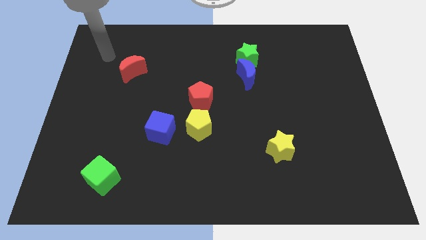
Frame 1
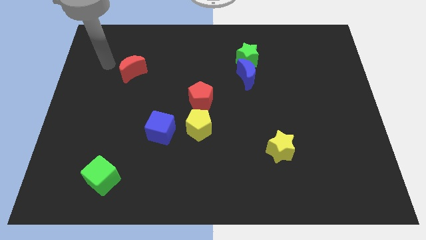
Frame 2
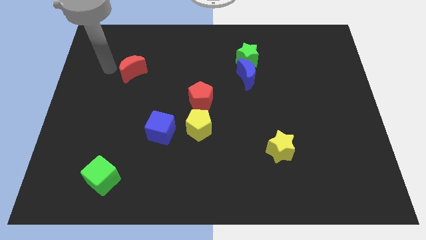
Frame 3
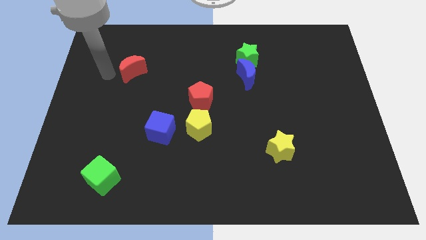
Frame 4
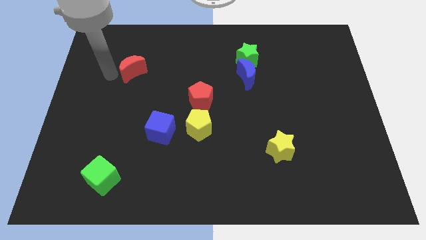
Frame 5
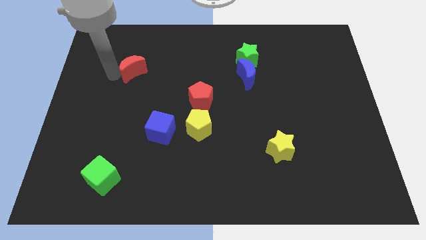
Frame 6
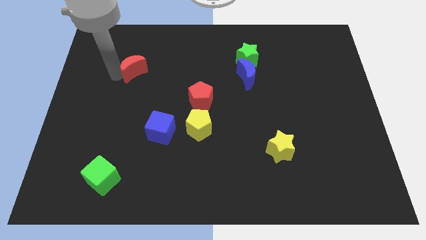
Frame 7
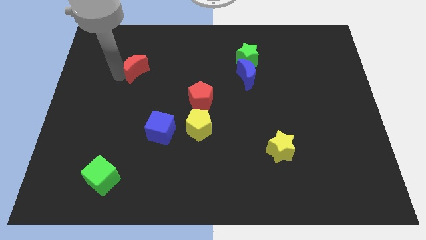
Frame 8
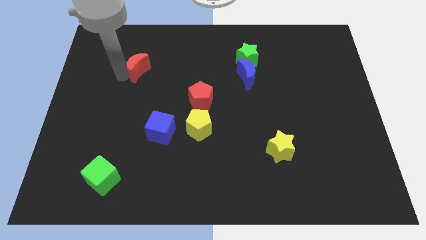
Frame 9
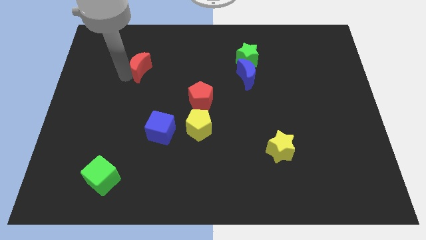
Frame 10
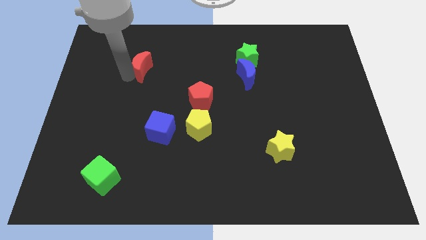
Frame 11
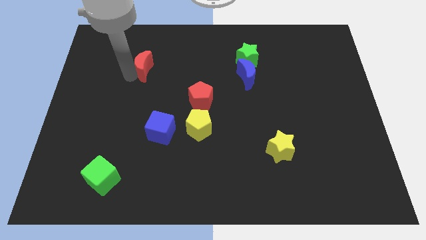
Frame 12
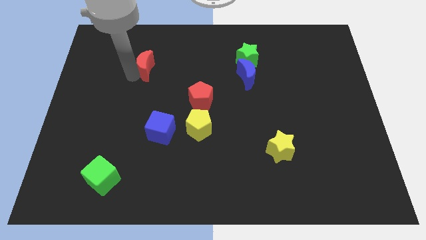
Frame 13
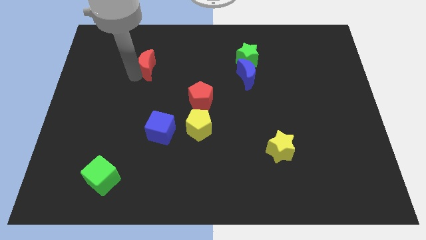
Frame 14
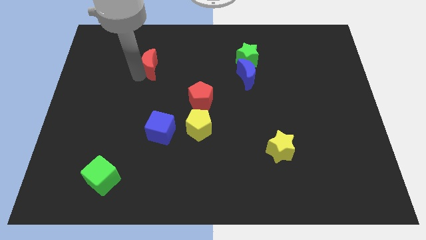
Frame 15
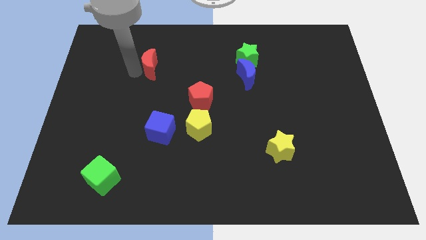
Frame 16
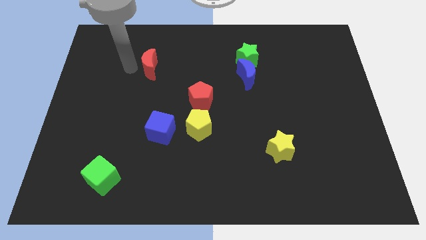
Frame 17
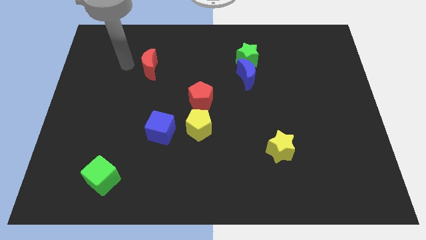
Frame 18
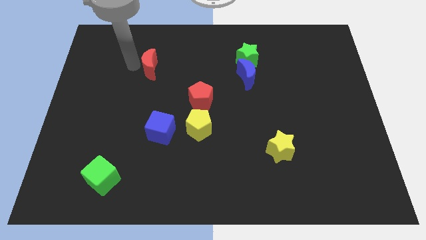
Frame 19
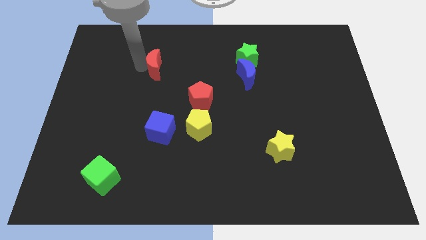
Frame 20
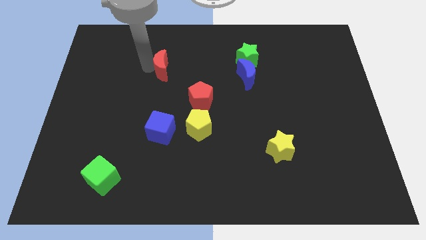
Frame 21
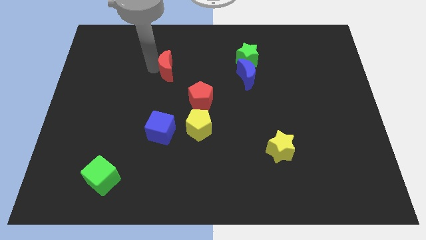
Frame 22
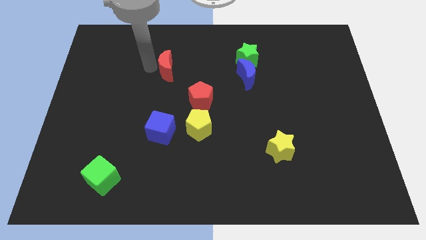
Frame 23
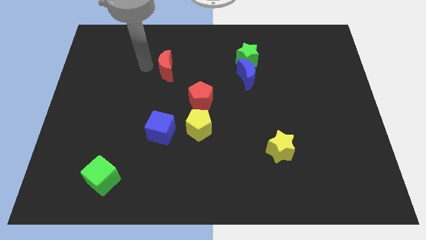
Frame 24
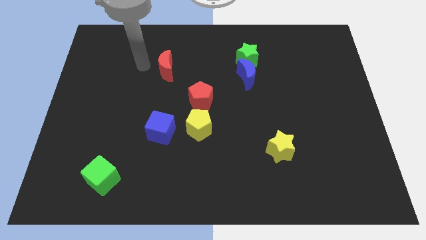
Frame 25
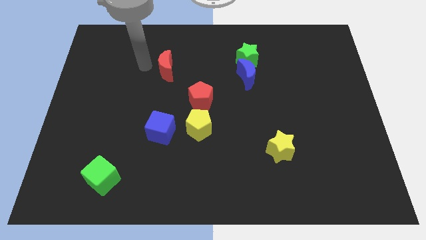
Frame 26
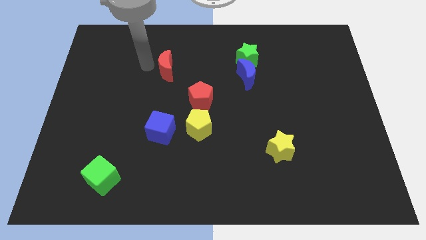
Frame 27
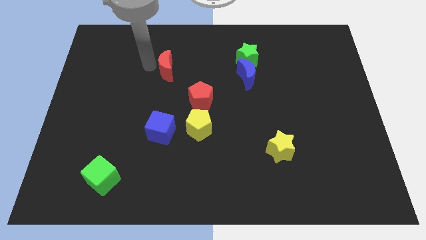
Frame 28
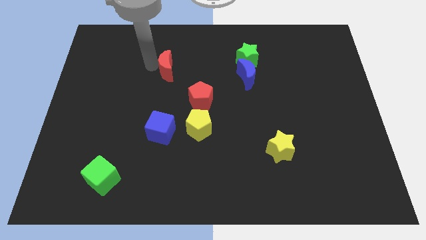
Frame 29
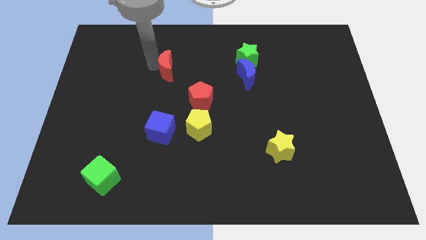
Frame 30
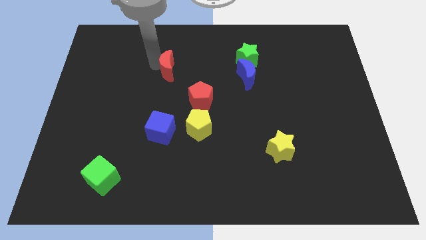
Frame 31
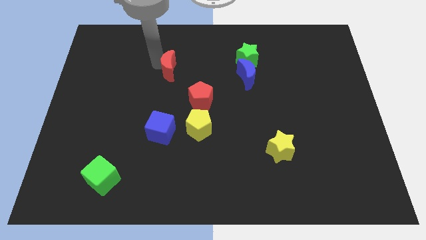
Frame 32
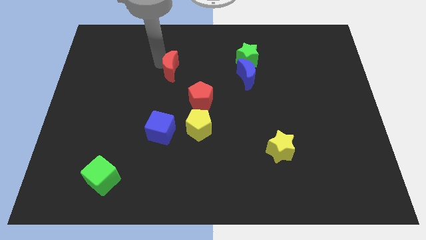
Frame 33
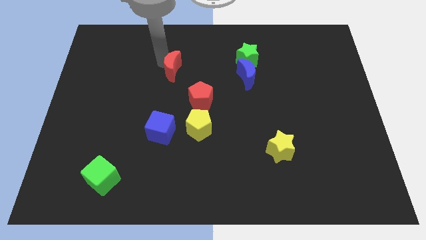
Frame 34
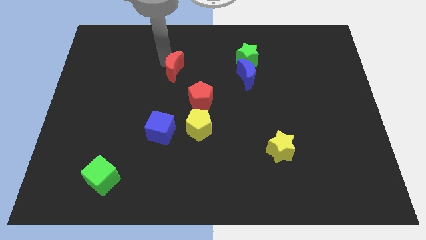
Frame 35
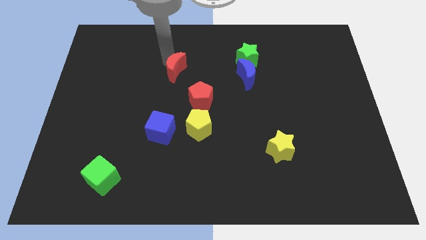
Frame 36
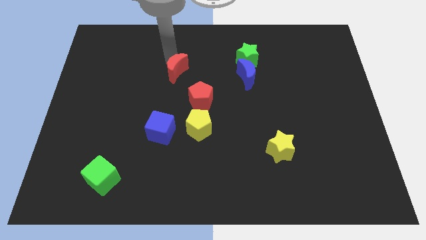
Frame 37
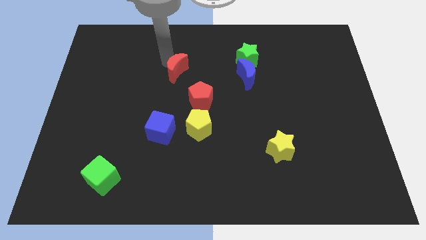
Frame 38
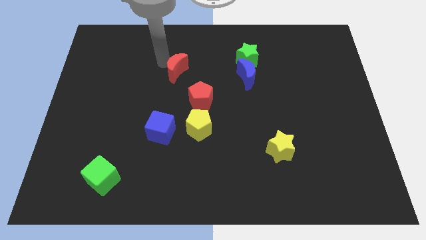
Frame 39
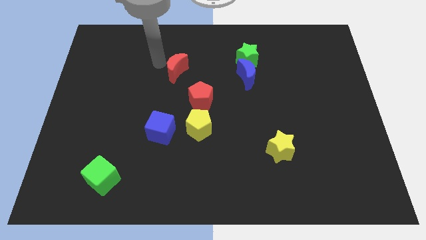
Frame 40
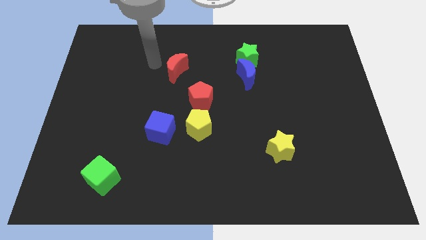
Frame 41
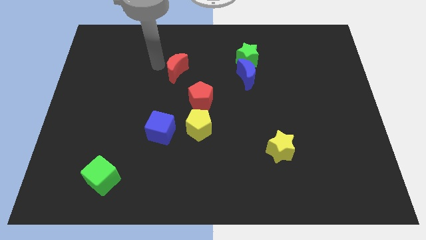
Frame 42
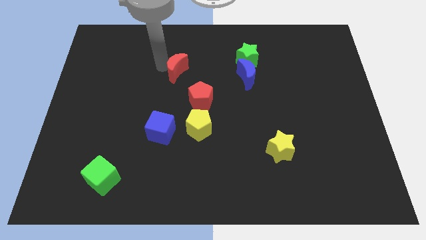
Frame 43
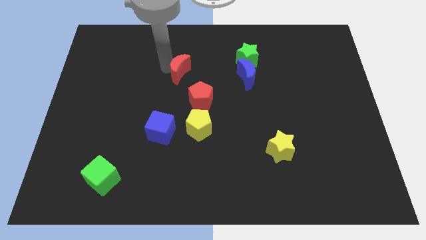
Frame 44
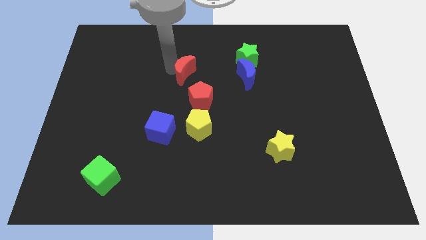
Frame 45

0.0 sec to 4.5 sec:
put the red moon to the left of the blue moon

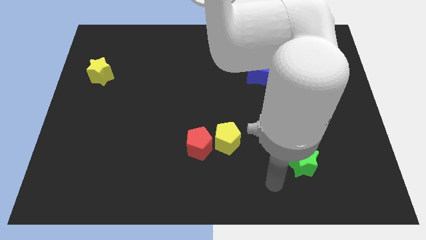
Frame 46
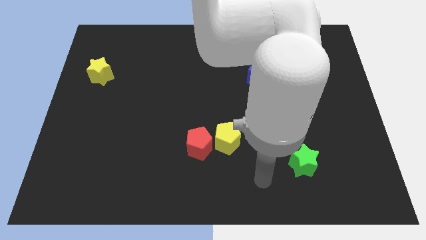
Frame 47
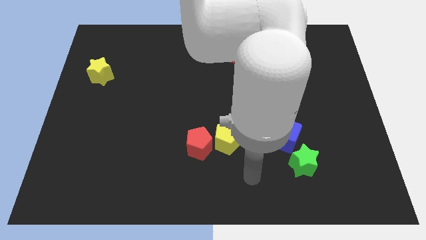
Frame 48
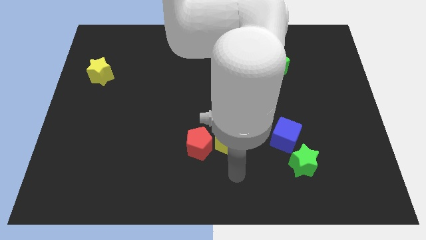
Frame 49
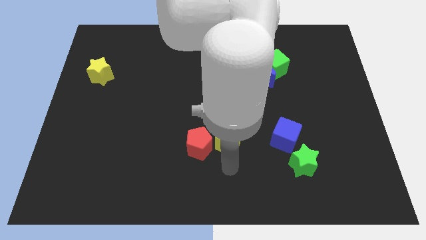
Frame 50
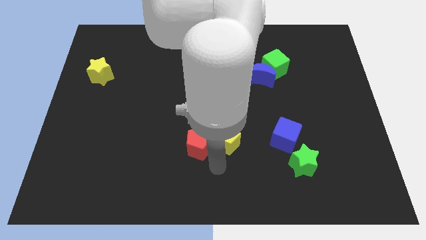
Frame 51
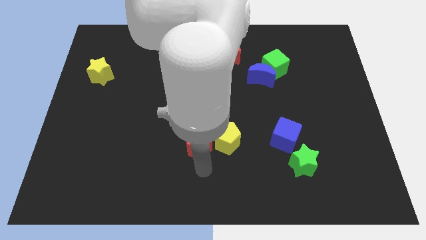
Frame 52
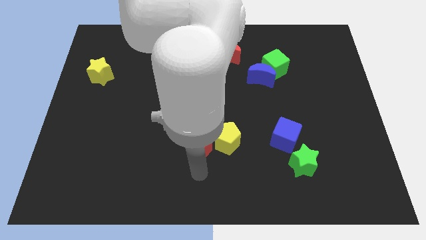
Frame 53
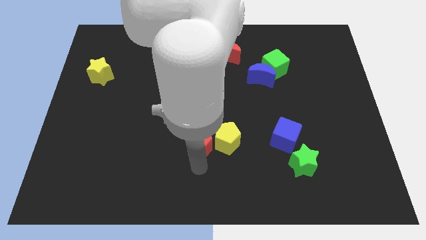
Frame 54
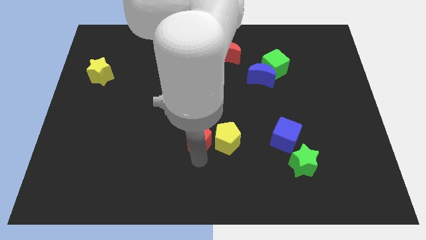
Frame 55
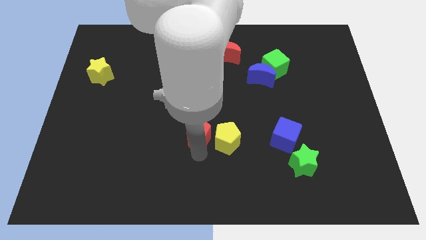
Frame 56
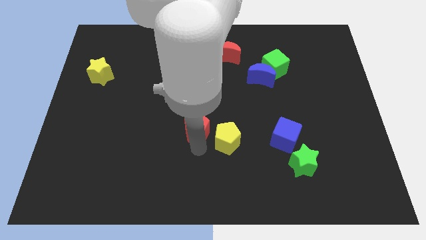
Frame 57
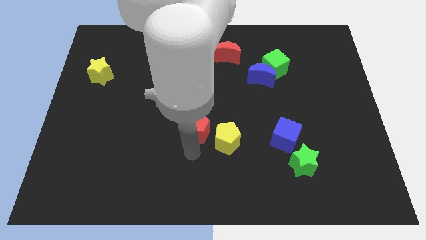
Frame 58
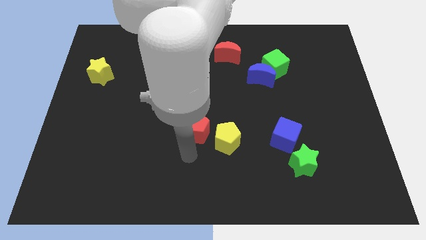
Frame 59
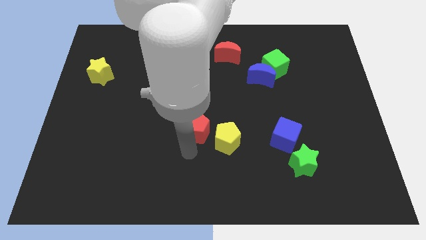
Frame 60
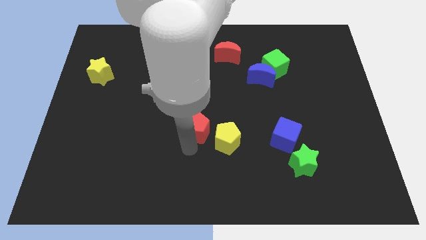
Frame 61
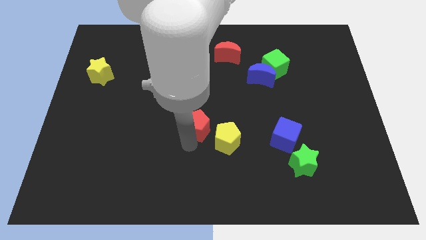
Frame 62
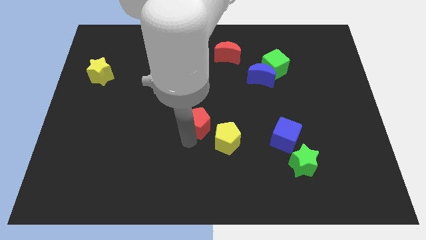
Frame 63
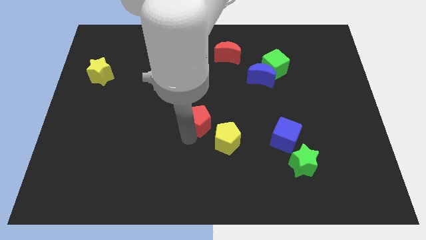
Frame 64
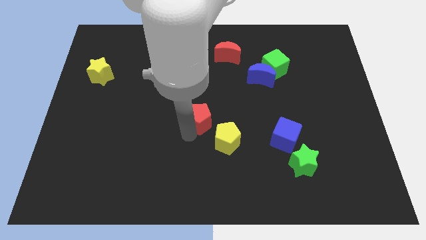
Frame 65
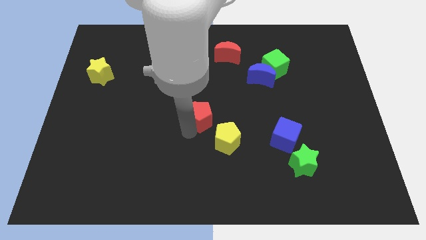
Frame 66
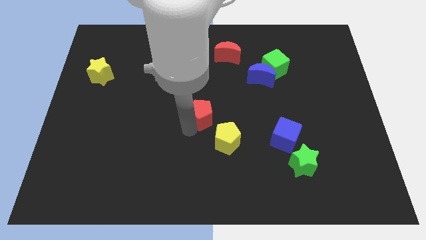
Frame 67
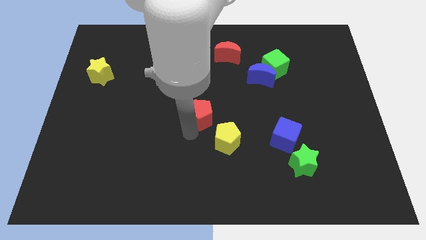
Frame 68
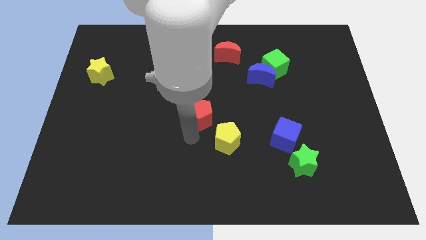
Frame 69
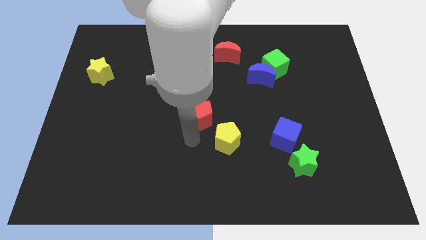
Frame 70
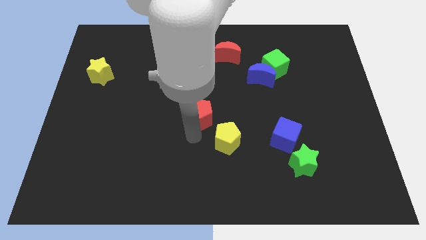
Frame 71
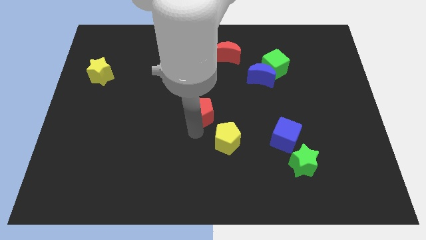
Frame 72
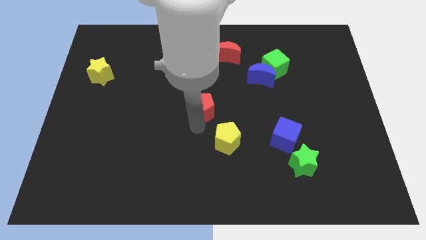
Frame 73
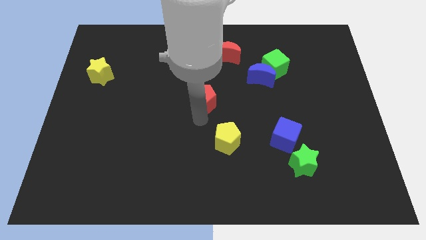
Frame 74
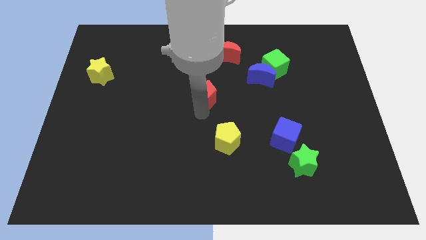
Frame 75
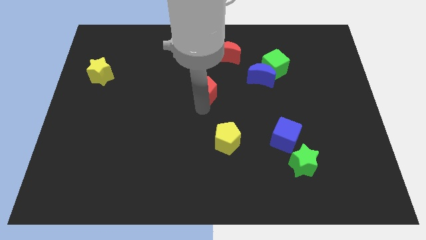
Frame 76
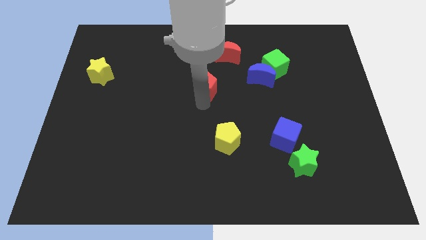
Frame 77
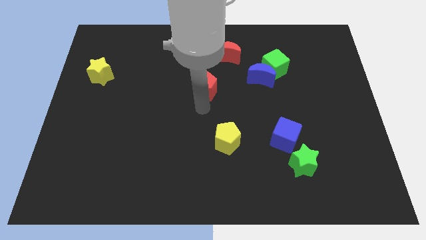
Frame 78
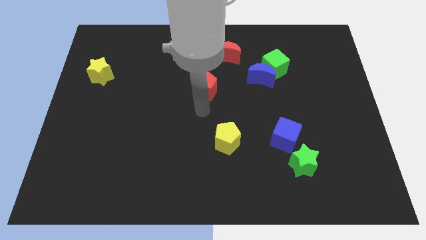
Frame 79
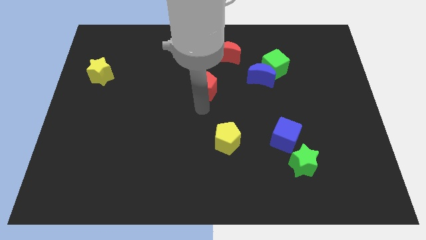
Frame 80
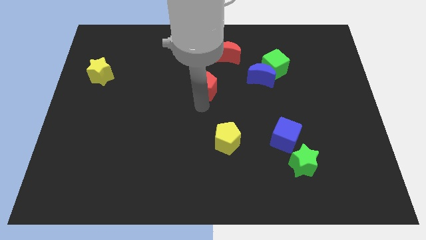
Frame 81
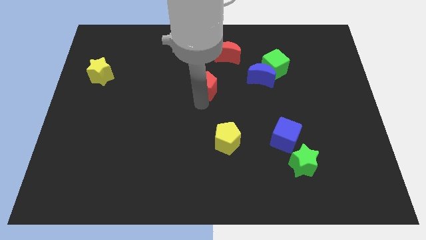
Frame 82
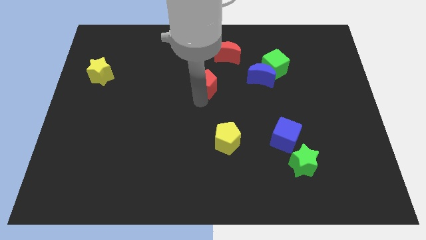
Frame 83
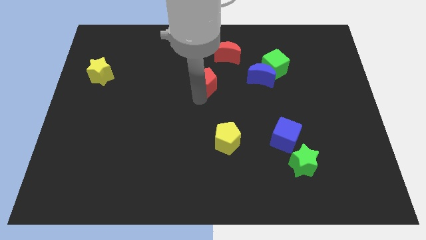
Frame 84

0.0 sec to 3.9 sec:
put the red pentagon diagonally down and to the left of the red moon
